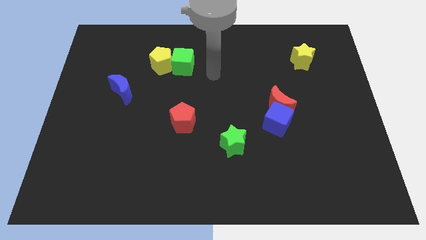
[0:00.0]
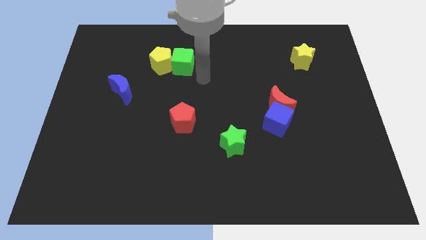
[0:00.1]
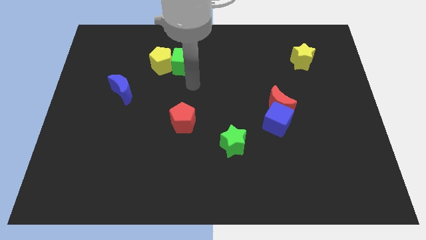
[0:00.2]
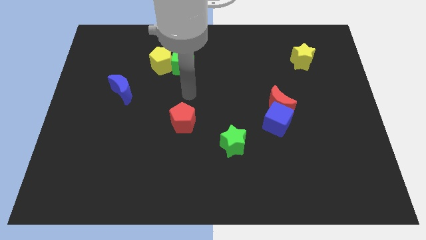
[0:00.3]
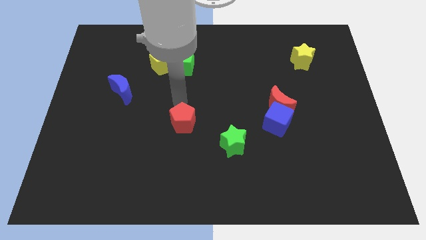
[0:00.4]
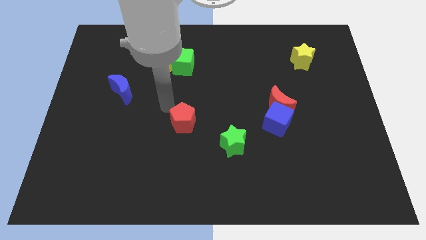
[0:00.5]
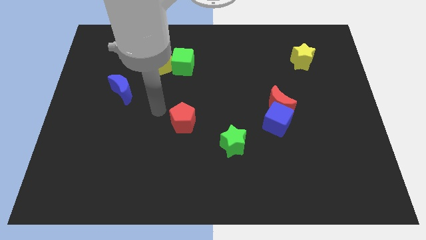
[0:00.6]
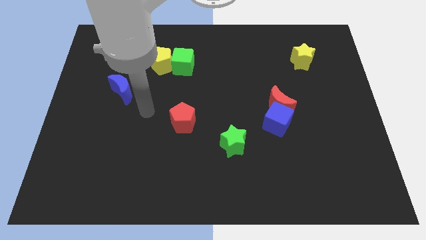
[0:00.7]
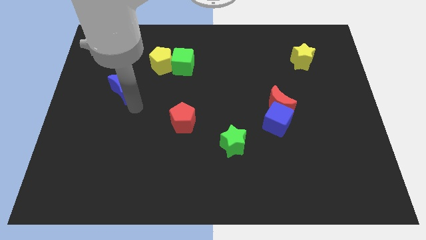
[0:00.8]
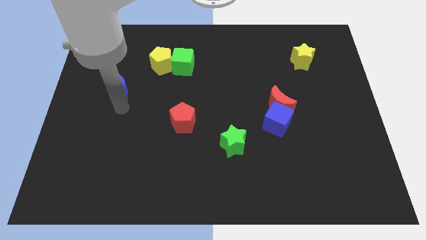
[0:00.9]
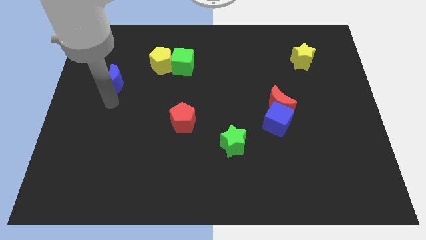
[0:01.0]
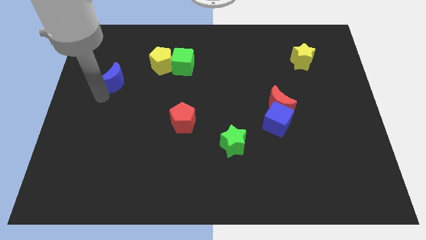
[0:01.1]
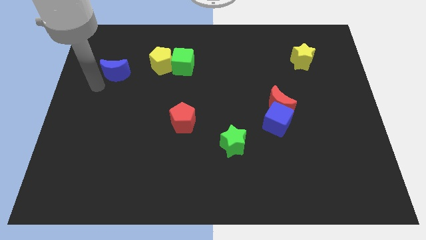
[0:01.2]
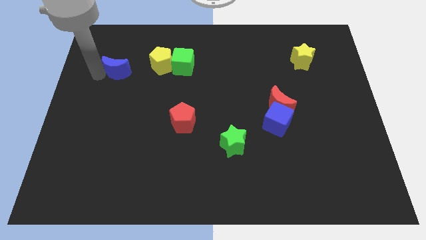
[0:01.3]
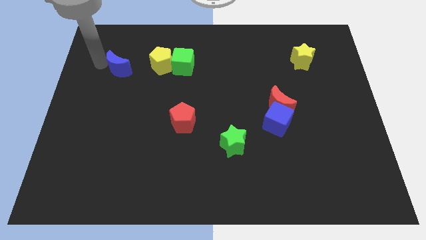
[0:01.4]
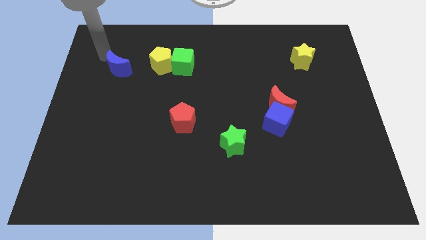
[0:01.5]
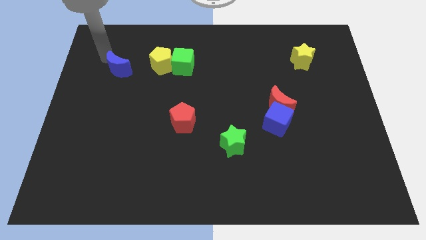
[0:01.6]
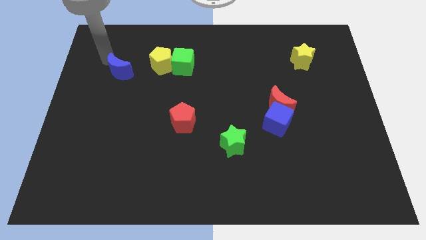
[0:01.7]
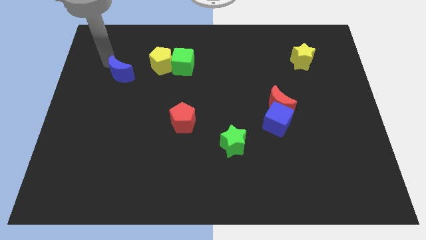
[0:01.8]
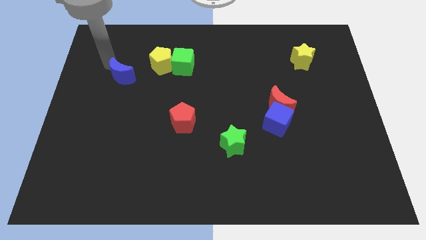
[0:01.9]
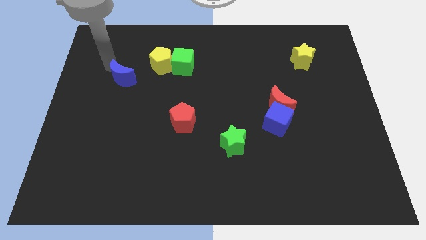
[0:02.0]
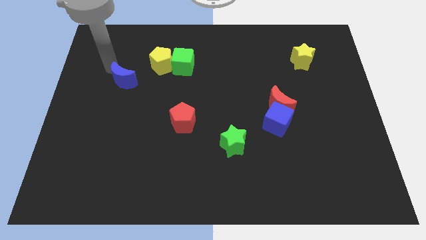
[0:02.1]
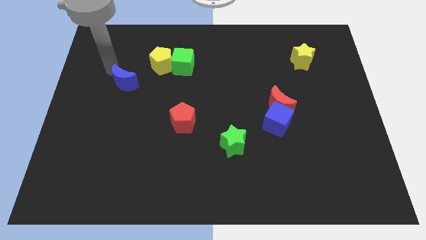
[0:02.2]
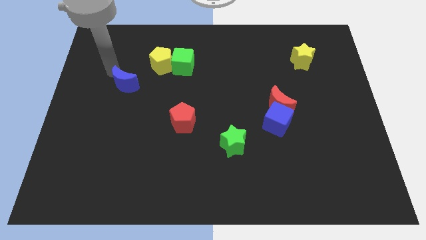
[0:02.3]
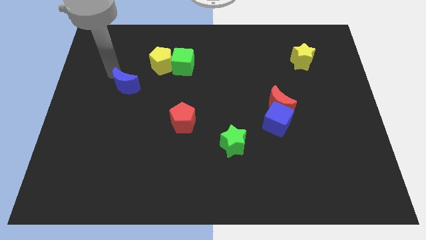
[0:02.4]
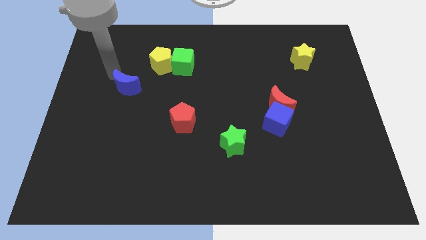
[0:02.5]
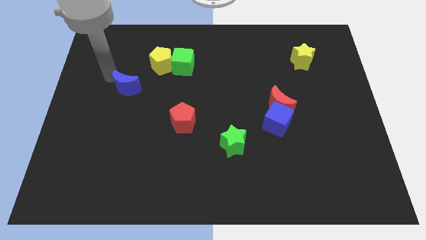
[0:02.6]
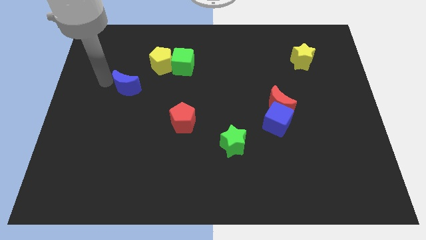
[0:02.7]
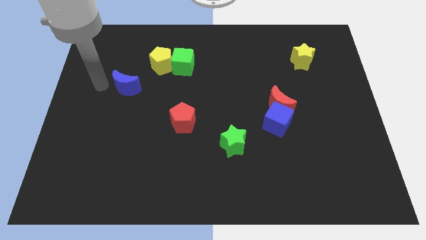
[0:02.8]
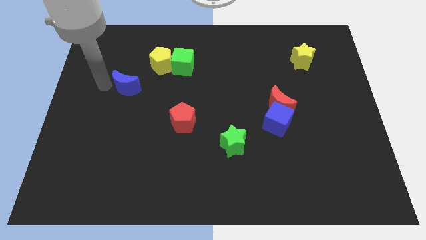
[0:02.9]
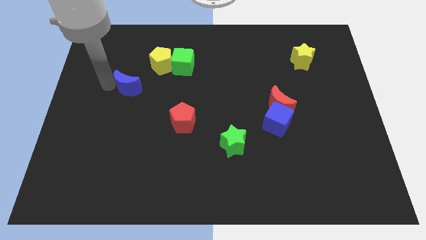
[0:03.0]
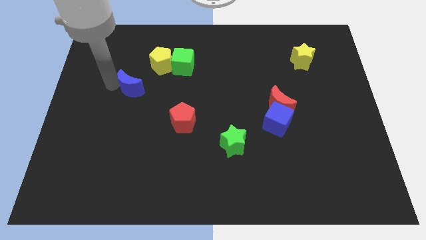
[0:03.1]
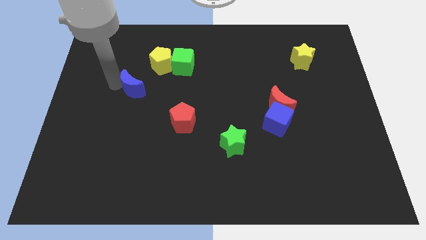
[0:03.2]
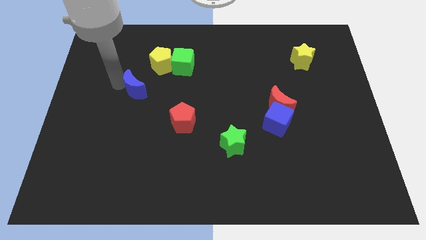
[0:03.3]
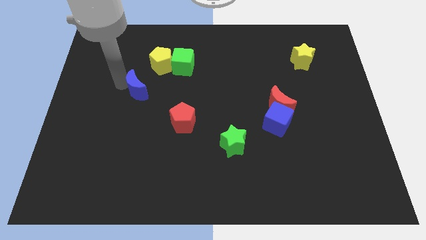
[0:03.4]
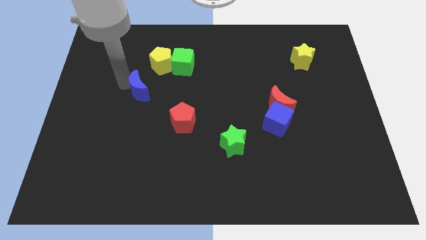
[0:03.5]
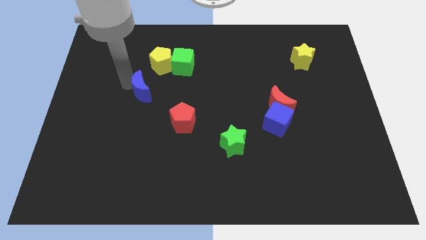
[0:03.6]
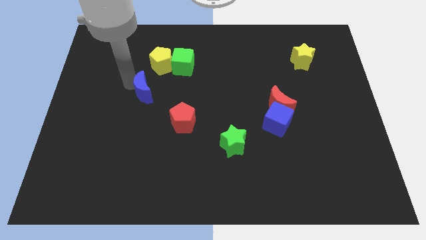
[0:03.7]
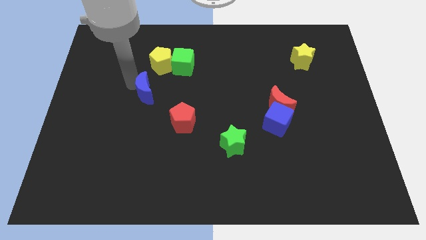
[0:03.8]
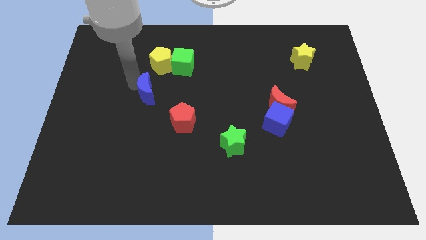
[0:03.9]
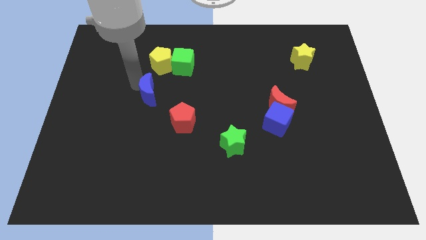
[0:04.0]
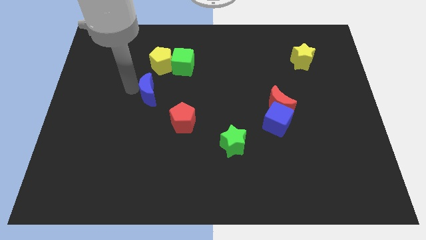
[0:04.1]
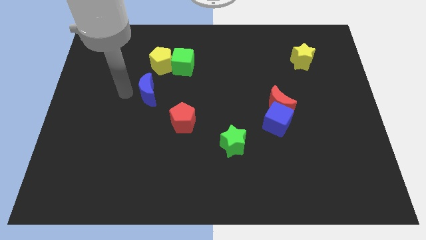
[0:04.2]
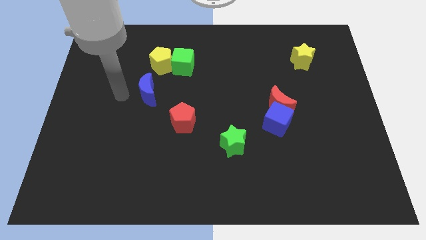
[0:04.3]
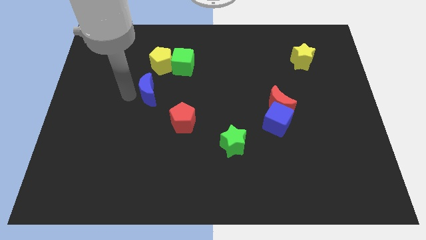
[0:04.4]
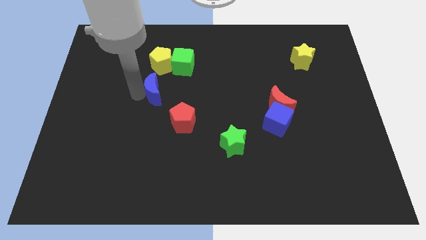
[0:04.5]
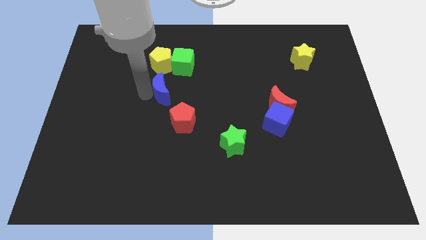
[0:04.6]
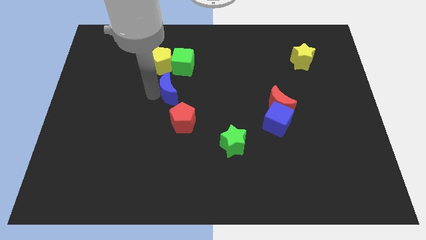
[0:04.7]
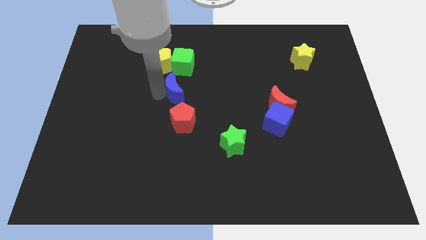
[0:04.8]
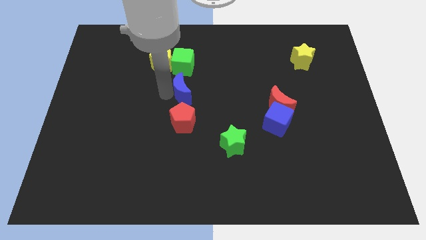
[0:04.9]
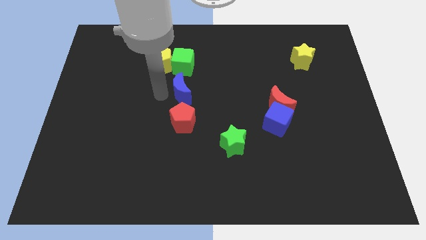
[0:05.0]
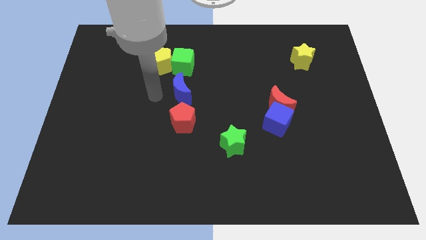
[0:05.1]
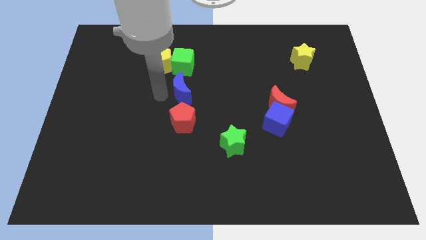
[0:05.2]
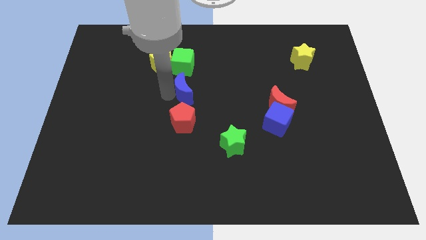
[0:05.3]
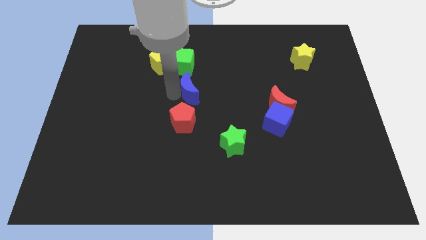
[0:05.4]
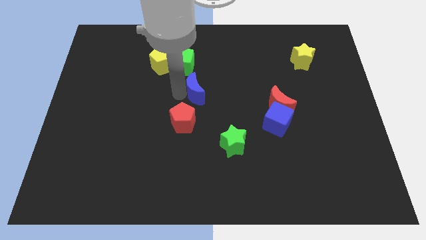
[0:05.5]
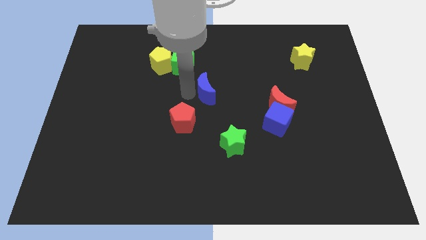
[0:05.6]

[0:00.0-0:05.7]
push the blue moon right

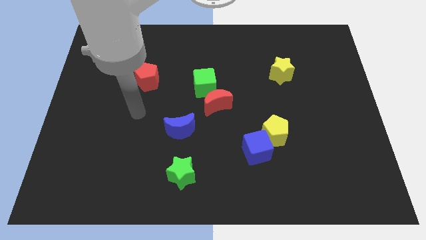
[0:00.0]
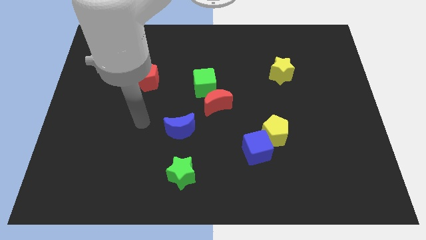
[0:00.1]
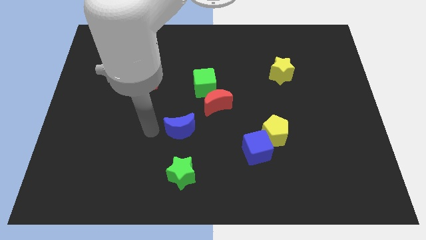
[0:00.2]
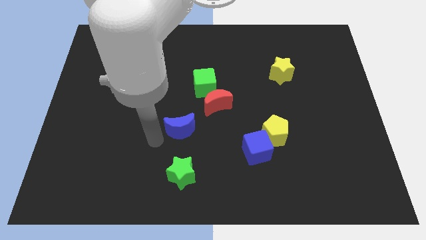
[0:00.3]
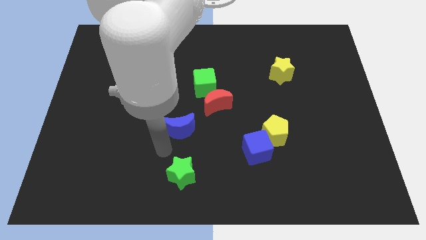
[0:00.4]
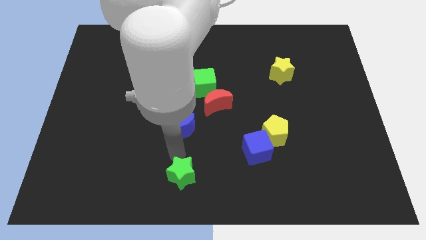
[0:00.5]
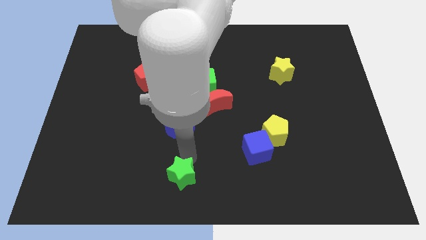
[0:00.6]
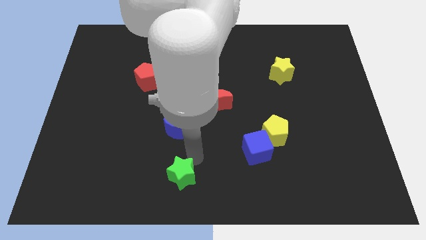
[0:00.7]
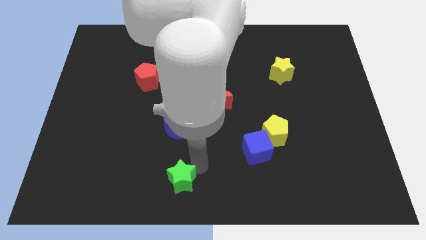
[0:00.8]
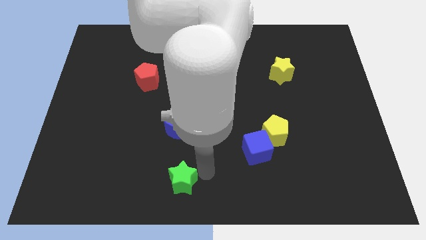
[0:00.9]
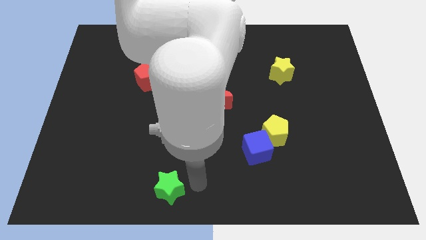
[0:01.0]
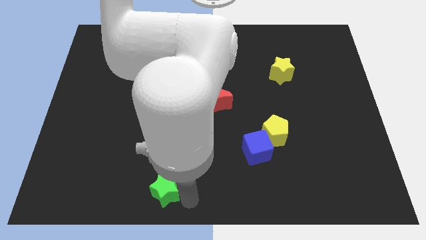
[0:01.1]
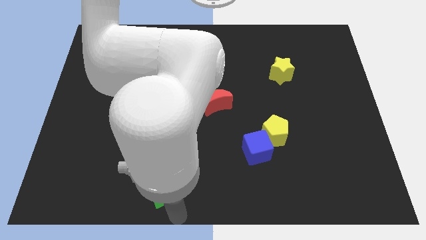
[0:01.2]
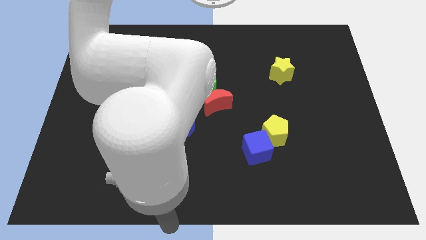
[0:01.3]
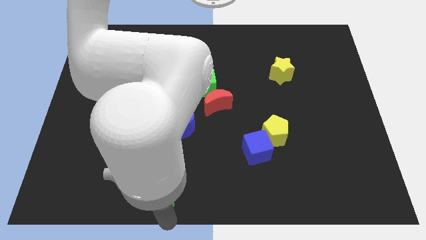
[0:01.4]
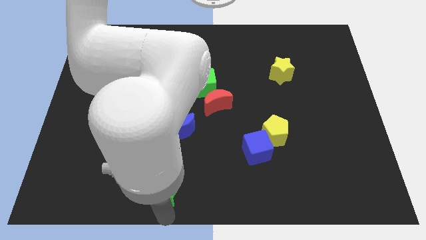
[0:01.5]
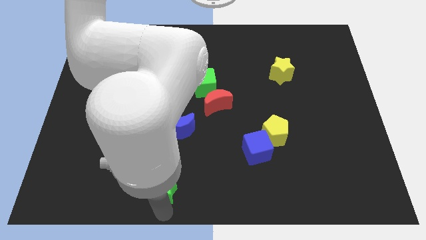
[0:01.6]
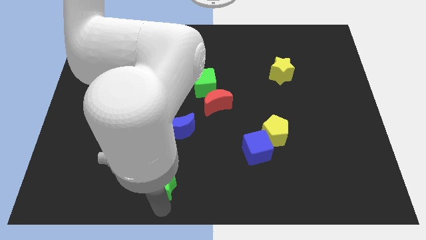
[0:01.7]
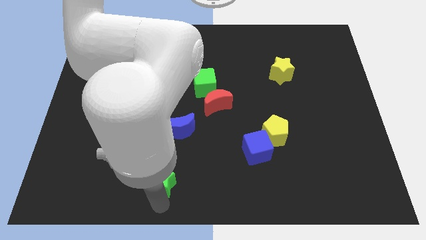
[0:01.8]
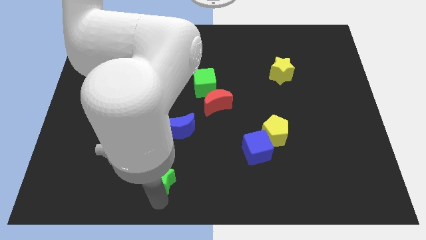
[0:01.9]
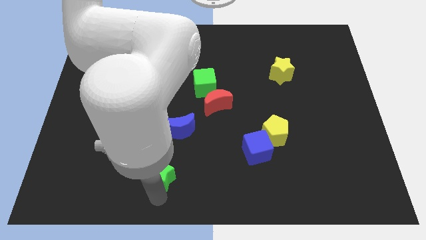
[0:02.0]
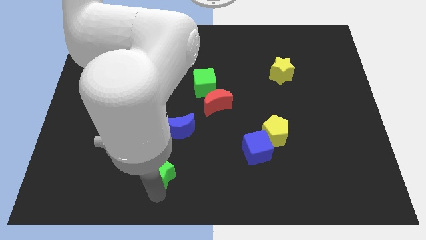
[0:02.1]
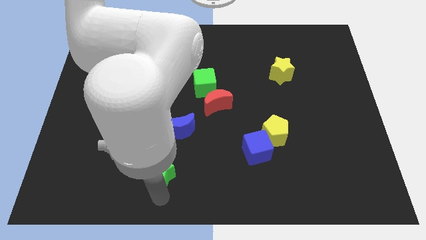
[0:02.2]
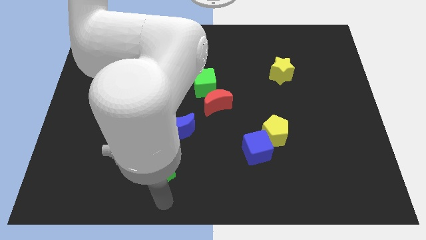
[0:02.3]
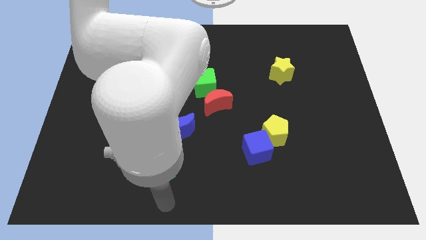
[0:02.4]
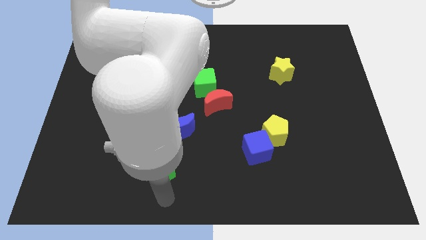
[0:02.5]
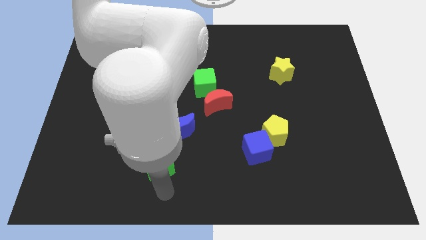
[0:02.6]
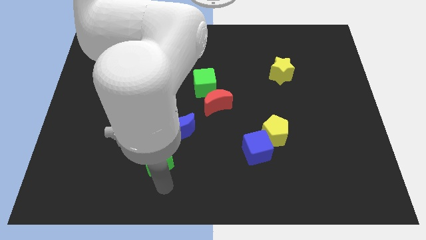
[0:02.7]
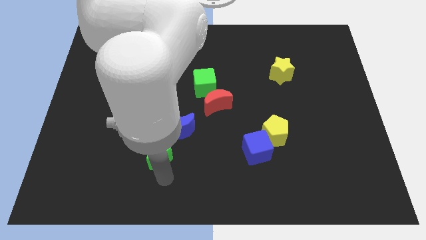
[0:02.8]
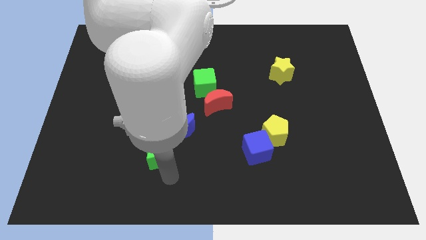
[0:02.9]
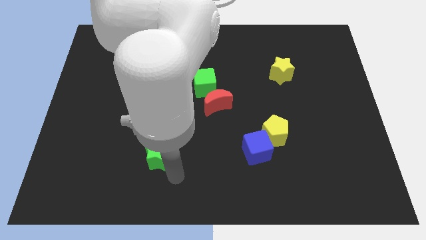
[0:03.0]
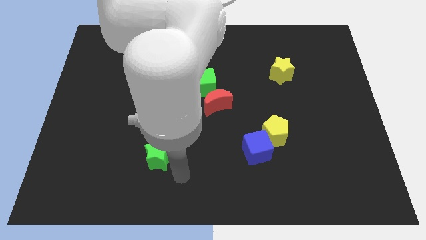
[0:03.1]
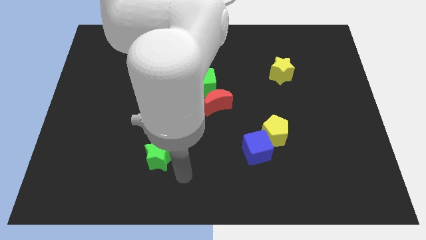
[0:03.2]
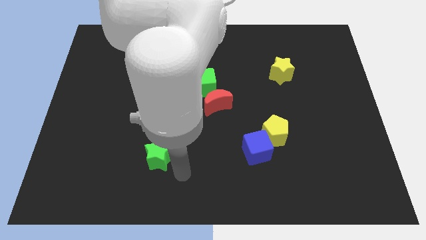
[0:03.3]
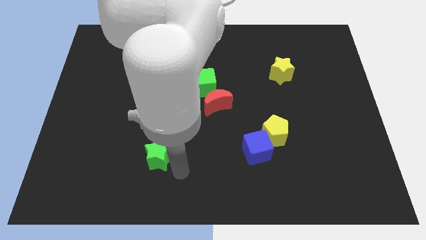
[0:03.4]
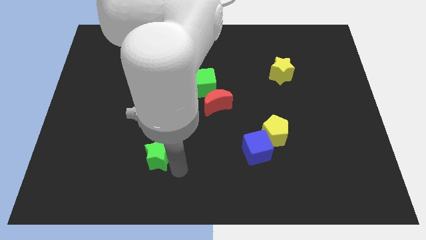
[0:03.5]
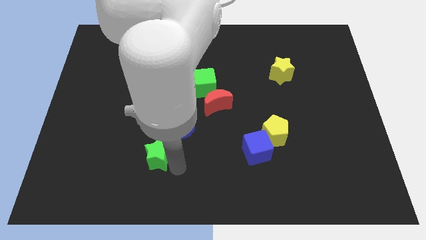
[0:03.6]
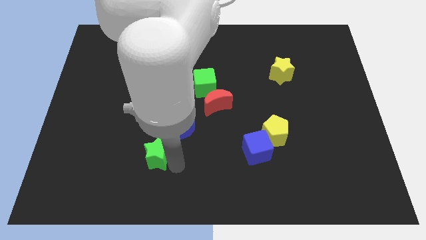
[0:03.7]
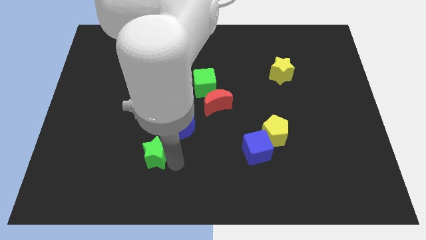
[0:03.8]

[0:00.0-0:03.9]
slide the green star a bit up and then left
